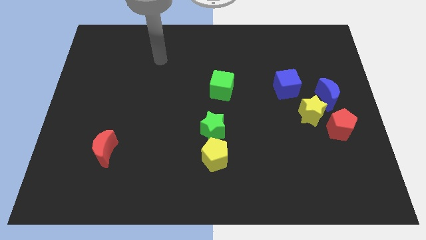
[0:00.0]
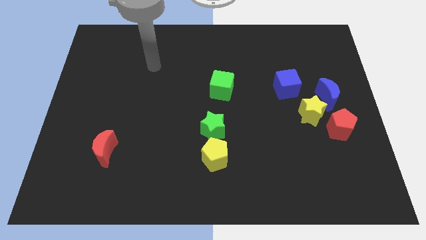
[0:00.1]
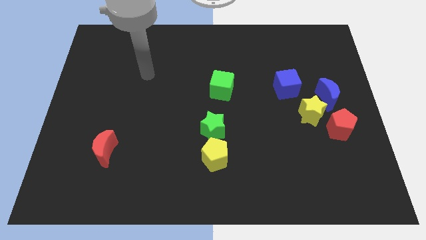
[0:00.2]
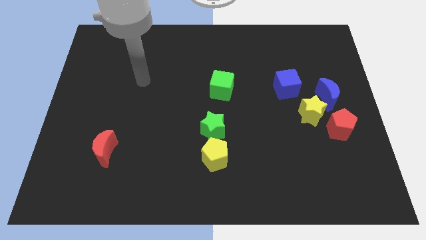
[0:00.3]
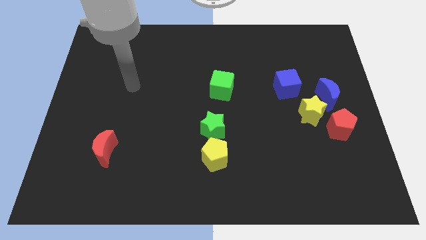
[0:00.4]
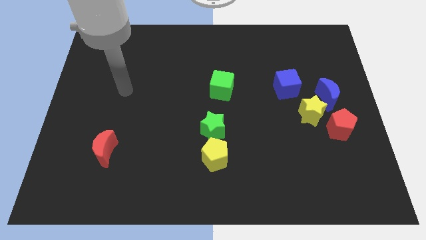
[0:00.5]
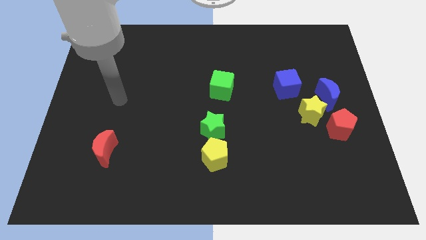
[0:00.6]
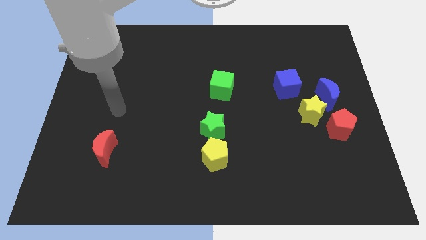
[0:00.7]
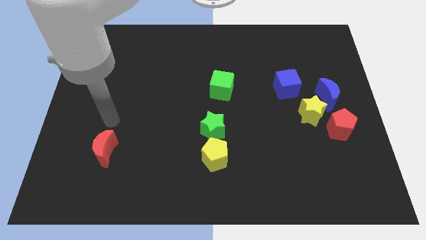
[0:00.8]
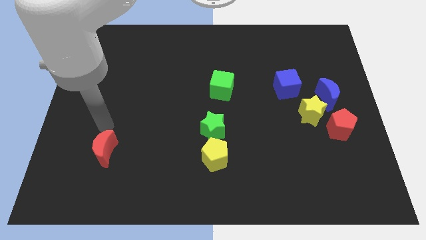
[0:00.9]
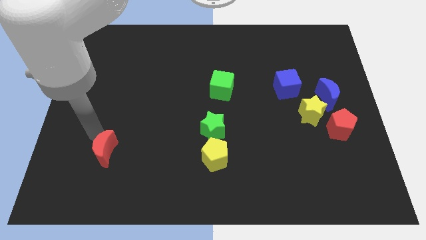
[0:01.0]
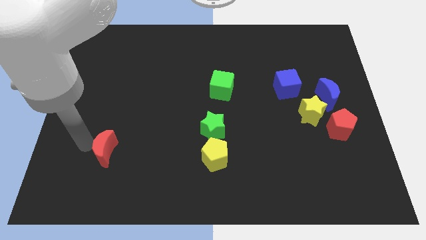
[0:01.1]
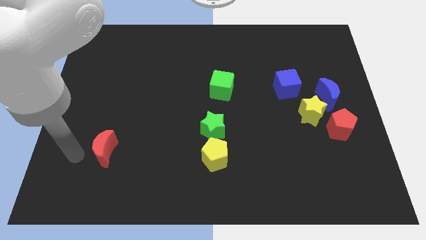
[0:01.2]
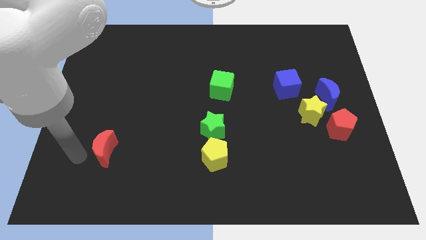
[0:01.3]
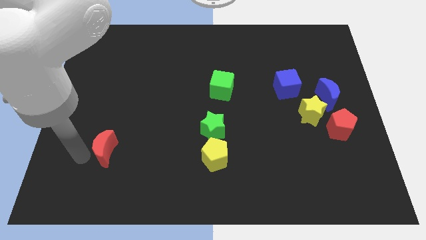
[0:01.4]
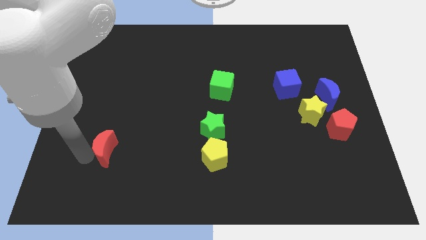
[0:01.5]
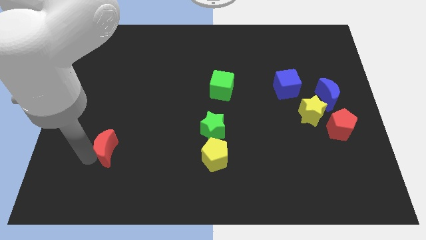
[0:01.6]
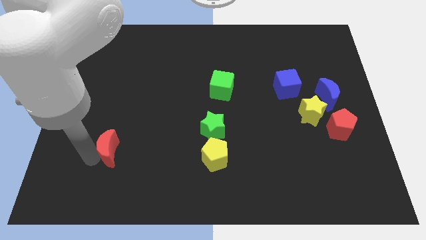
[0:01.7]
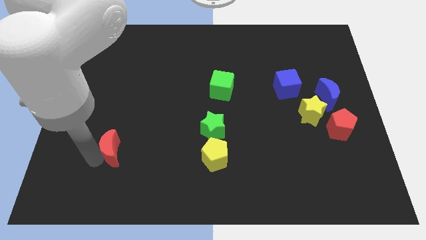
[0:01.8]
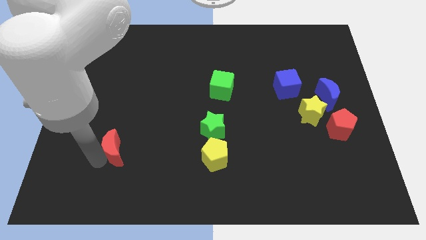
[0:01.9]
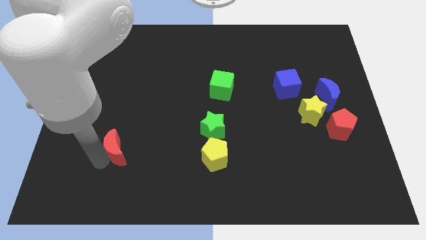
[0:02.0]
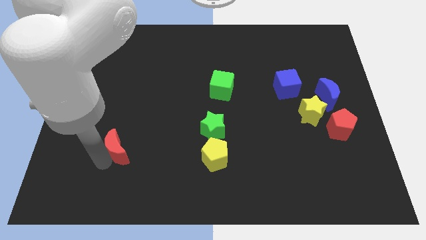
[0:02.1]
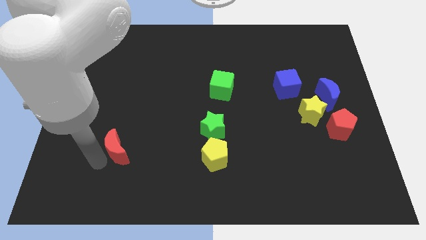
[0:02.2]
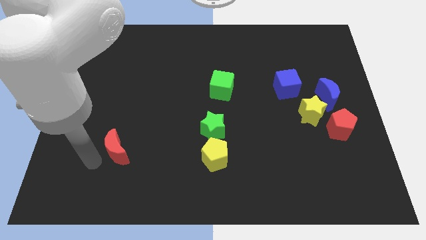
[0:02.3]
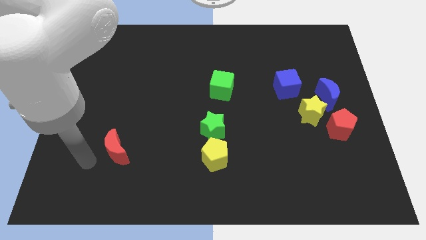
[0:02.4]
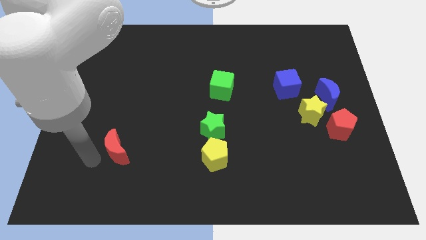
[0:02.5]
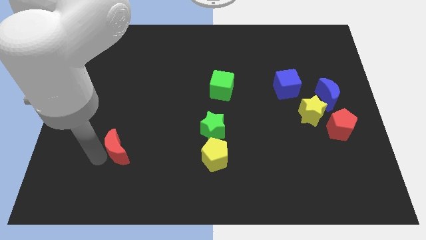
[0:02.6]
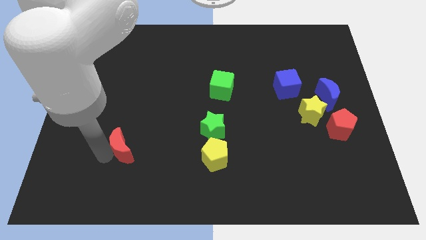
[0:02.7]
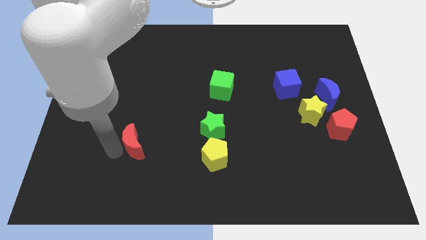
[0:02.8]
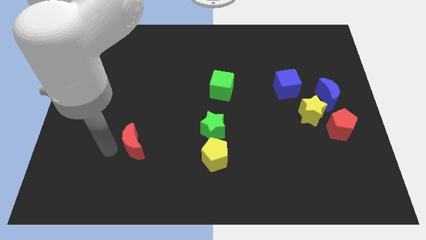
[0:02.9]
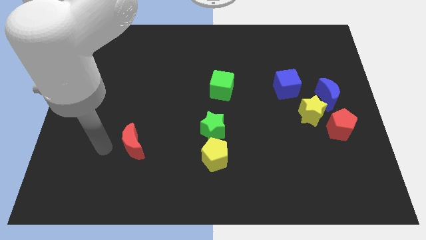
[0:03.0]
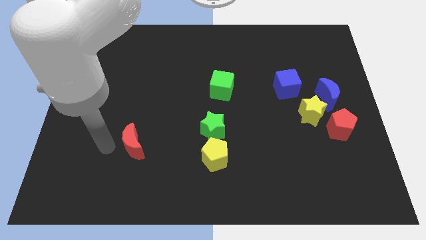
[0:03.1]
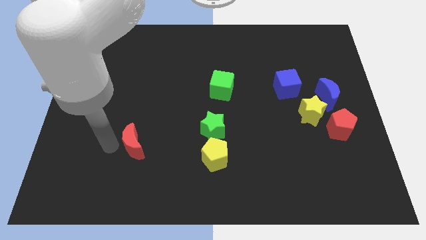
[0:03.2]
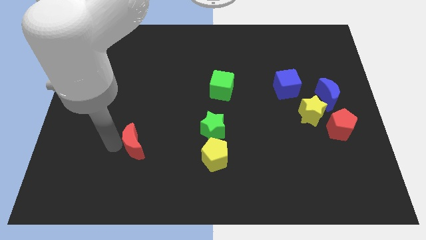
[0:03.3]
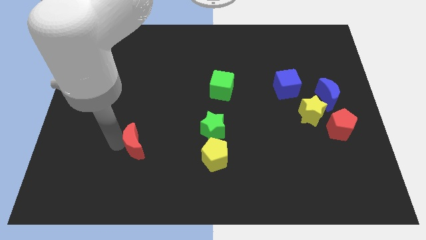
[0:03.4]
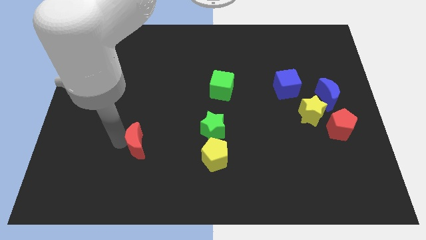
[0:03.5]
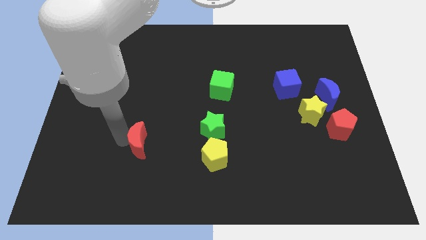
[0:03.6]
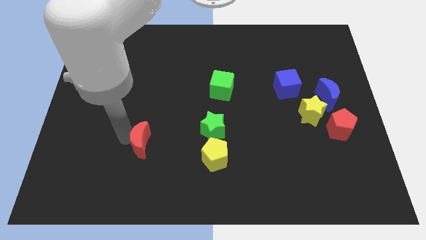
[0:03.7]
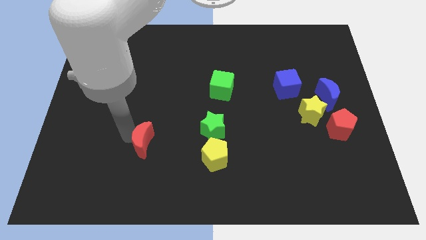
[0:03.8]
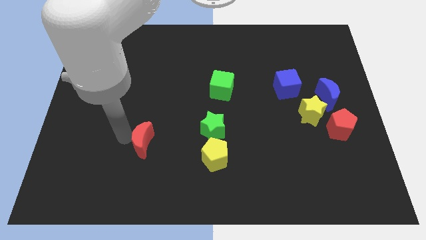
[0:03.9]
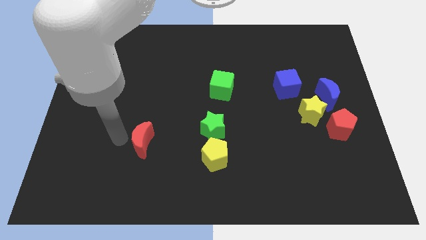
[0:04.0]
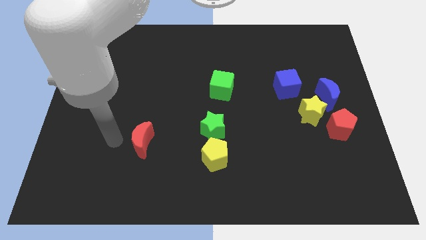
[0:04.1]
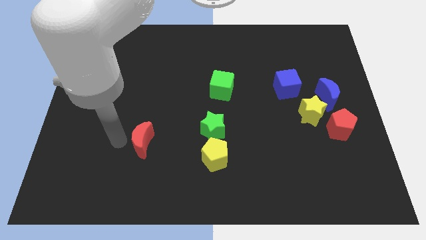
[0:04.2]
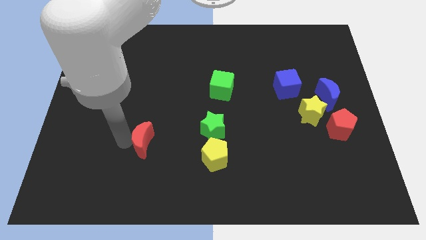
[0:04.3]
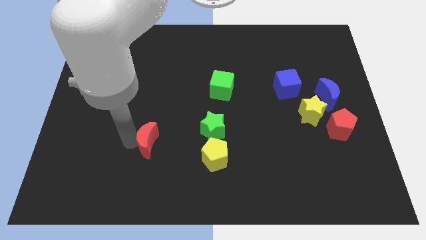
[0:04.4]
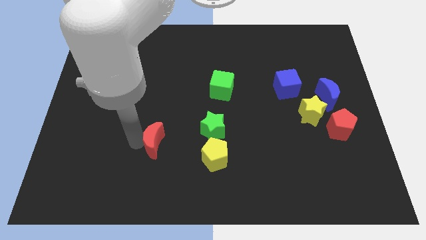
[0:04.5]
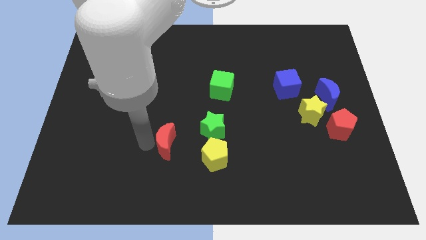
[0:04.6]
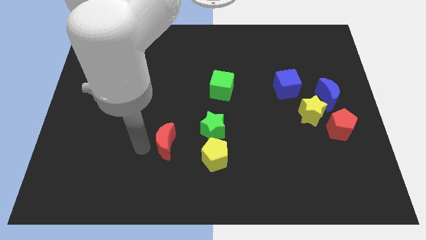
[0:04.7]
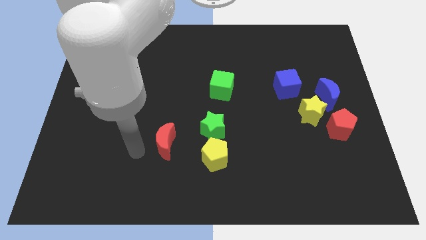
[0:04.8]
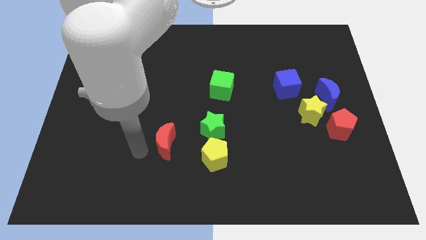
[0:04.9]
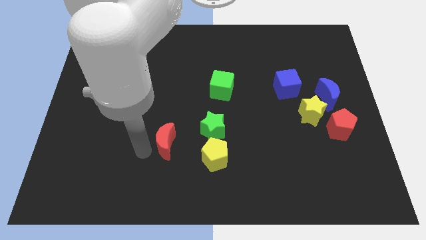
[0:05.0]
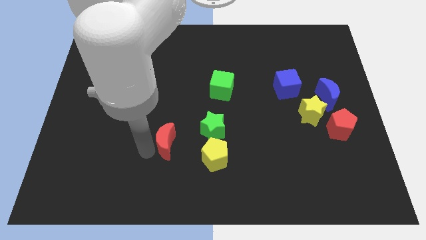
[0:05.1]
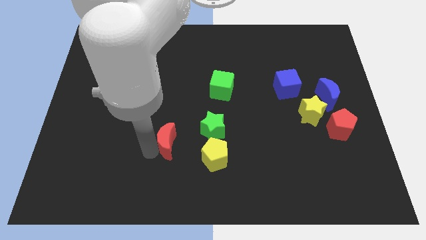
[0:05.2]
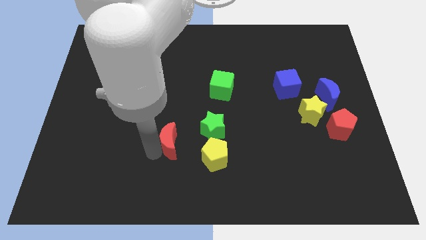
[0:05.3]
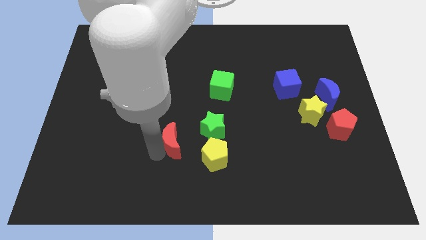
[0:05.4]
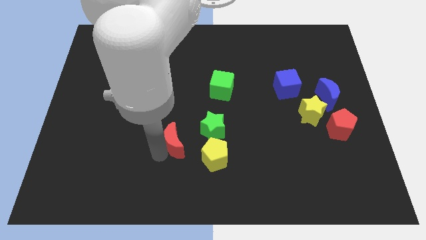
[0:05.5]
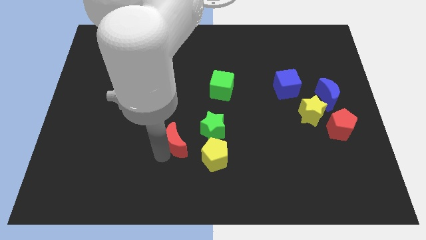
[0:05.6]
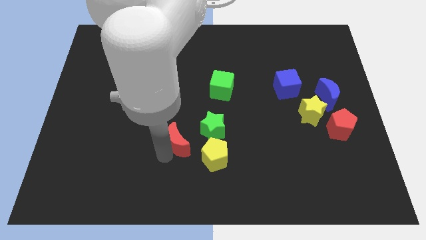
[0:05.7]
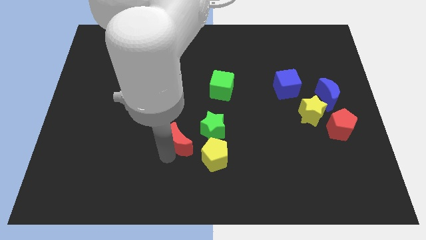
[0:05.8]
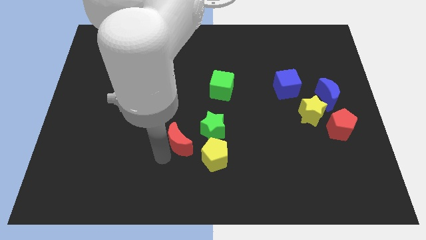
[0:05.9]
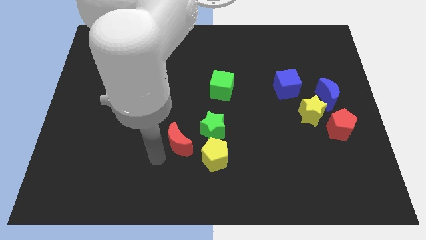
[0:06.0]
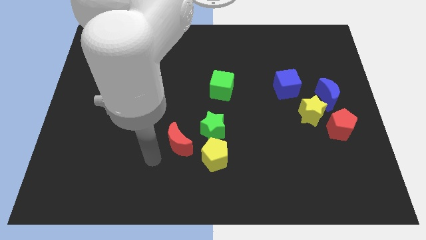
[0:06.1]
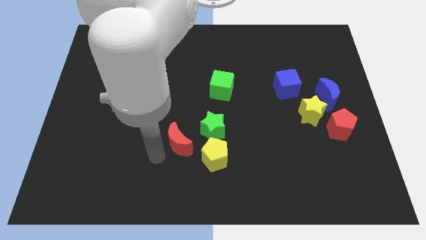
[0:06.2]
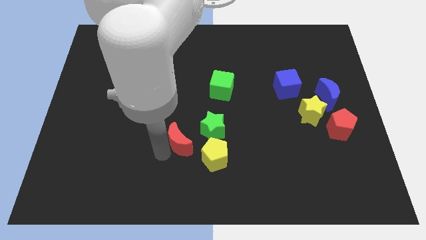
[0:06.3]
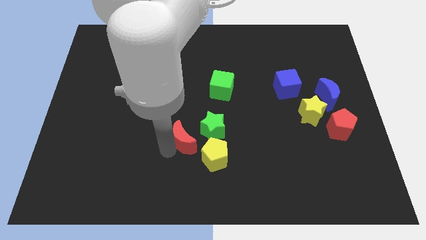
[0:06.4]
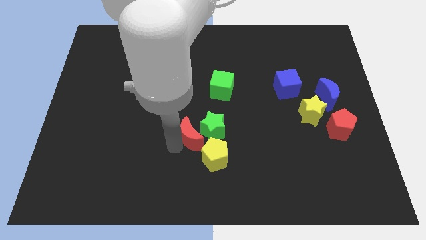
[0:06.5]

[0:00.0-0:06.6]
push the red moon towards the green star

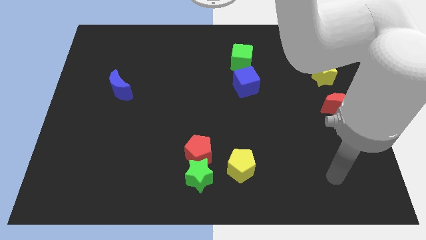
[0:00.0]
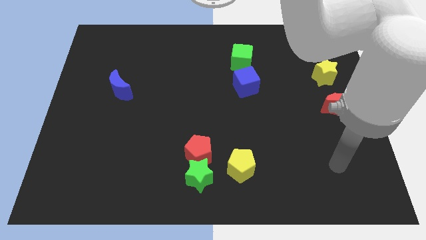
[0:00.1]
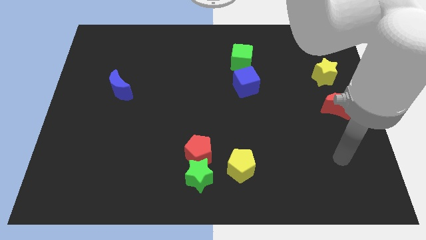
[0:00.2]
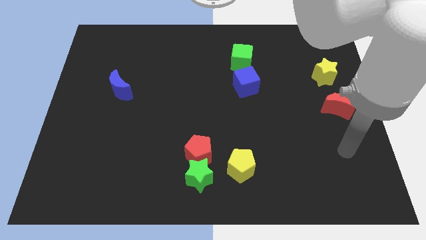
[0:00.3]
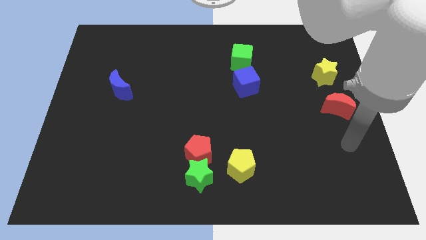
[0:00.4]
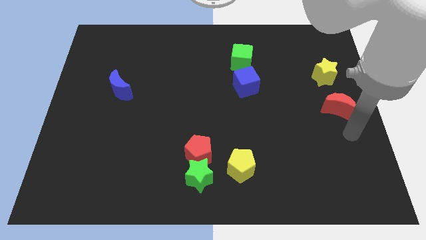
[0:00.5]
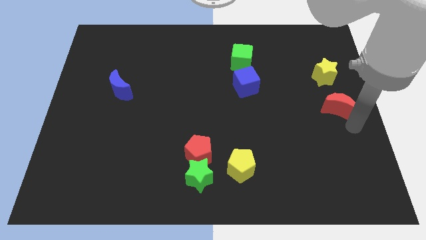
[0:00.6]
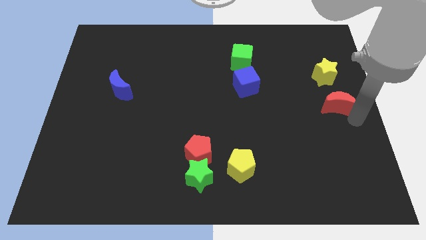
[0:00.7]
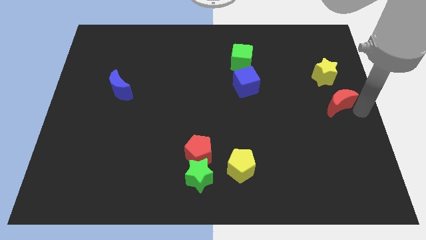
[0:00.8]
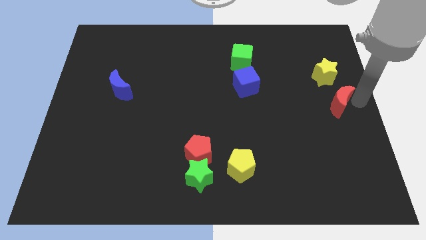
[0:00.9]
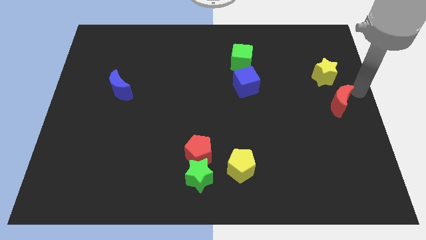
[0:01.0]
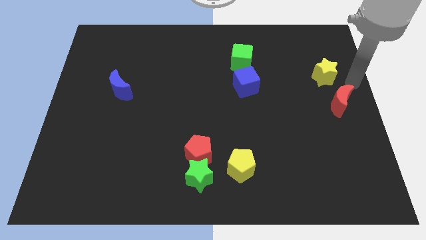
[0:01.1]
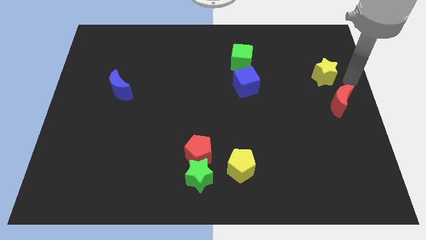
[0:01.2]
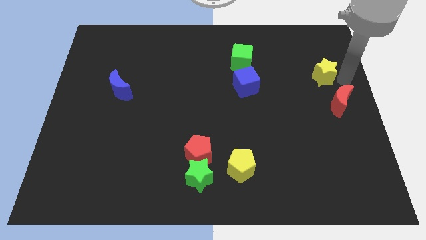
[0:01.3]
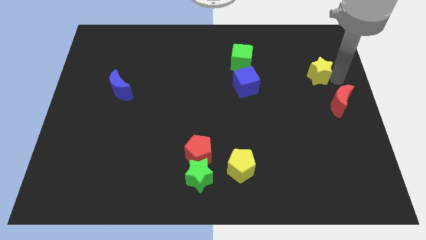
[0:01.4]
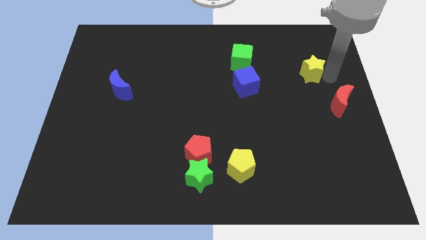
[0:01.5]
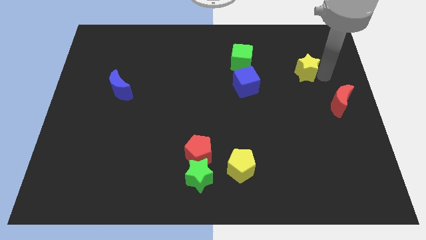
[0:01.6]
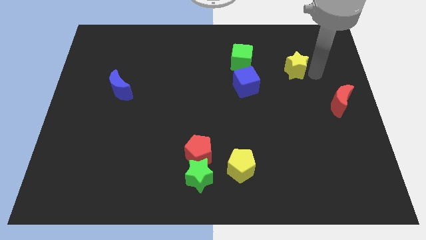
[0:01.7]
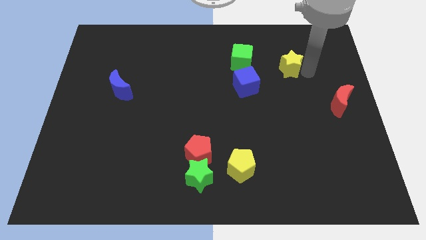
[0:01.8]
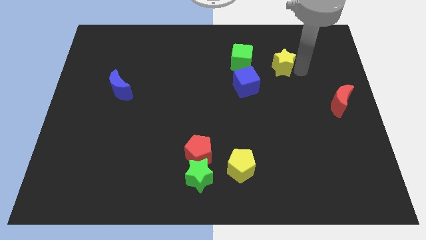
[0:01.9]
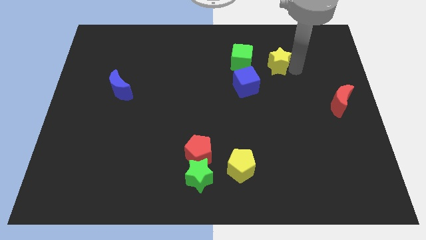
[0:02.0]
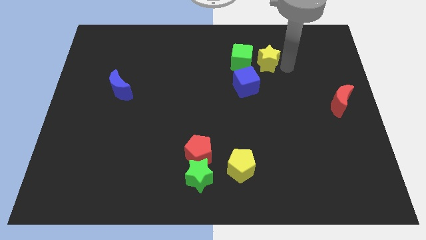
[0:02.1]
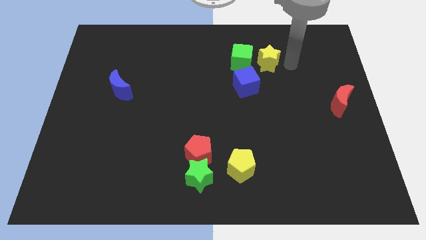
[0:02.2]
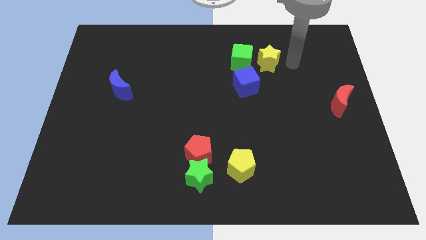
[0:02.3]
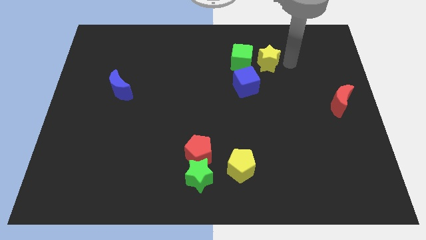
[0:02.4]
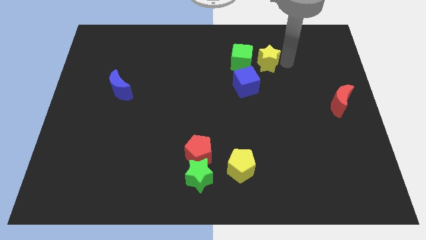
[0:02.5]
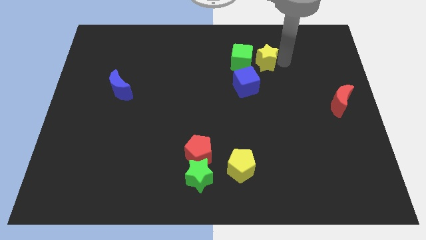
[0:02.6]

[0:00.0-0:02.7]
slide the yellow star towards the green cube
